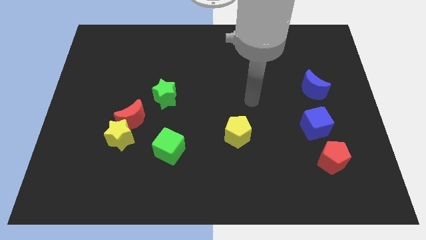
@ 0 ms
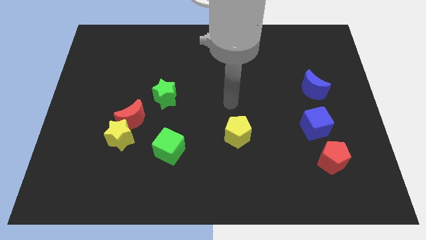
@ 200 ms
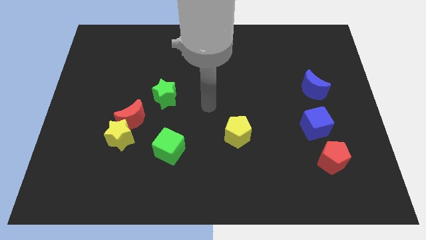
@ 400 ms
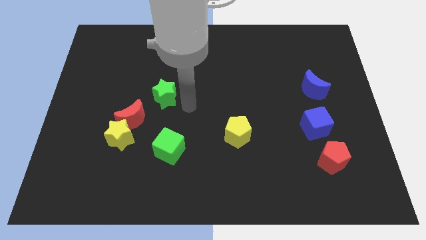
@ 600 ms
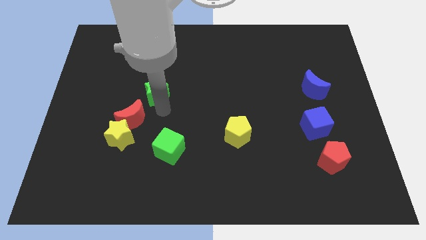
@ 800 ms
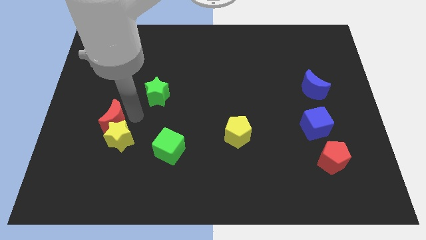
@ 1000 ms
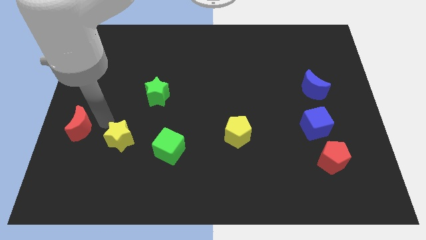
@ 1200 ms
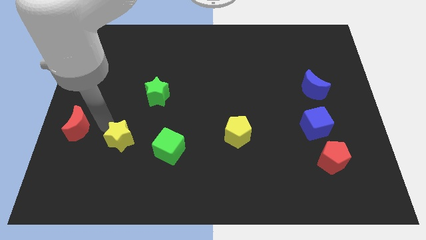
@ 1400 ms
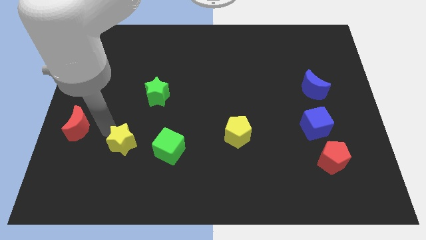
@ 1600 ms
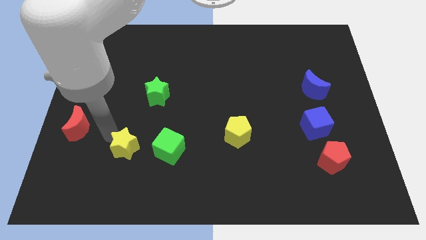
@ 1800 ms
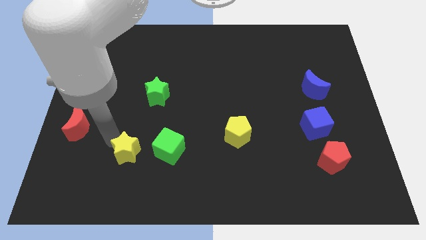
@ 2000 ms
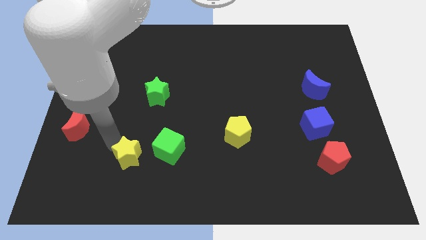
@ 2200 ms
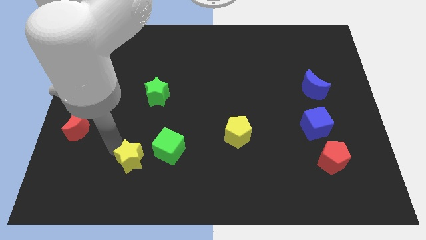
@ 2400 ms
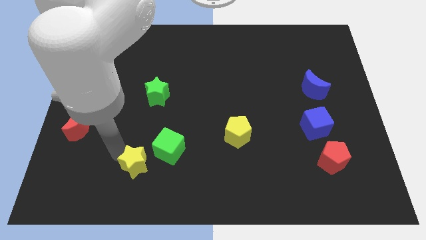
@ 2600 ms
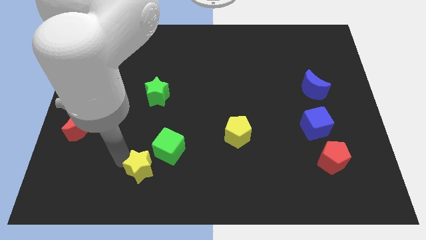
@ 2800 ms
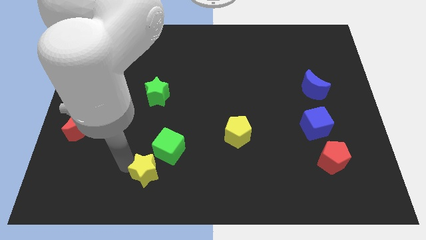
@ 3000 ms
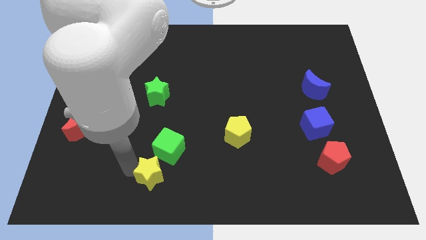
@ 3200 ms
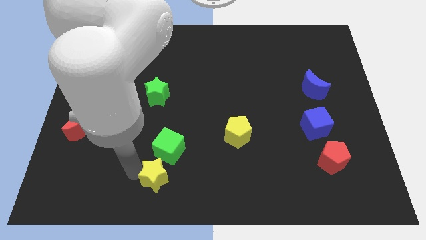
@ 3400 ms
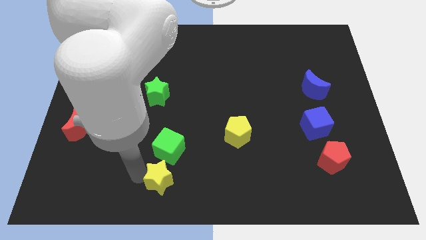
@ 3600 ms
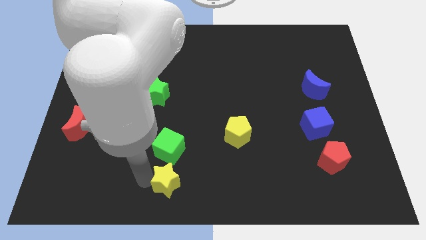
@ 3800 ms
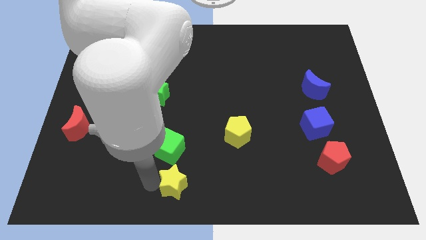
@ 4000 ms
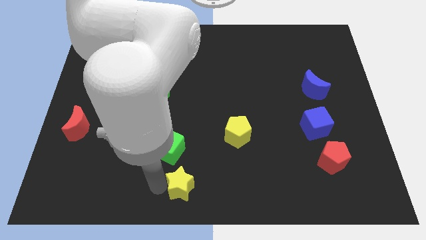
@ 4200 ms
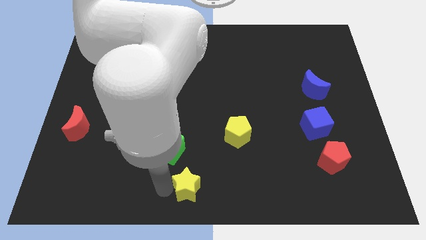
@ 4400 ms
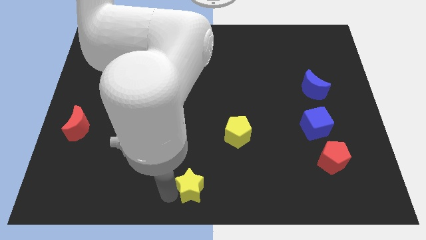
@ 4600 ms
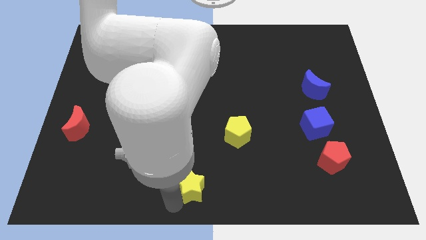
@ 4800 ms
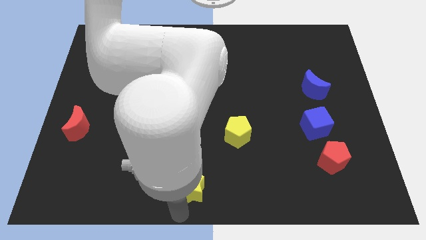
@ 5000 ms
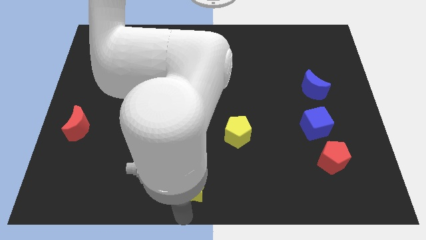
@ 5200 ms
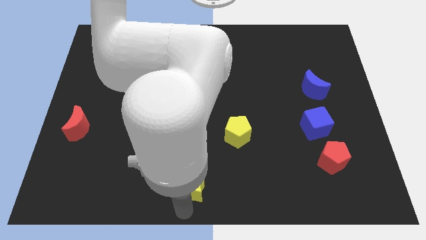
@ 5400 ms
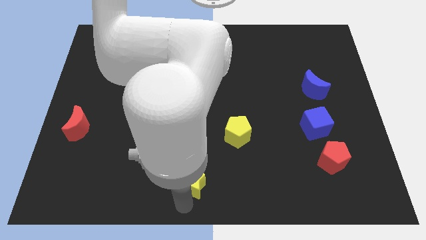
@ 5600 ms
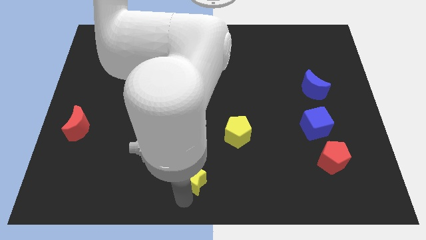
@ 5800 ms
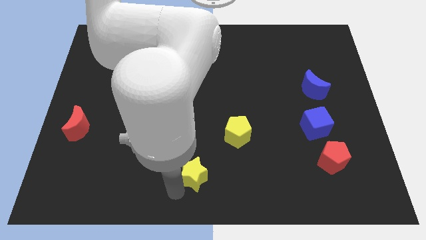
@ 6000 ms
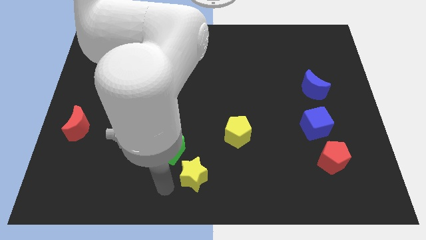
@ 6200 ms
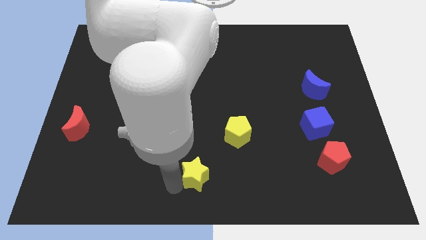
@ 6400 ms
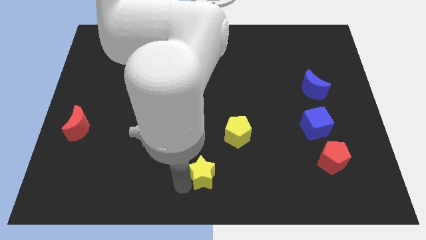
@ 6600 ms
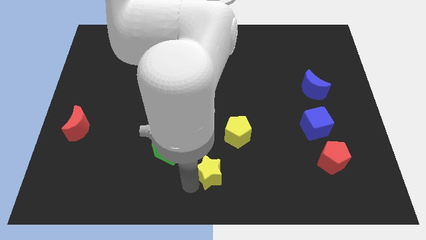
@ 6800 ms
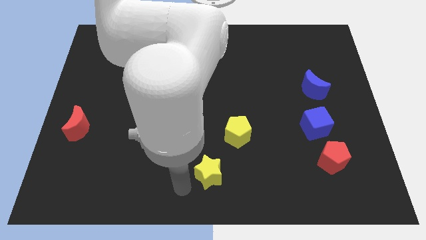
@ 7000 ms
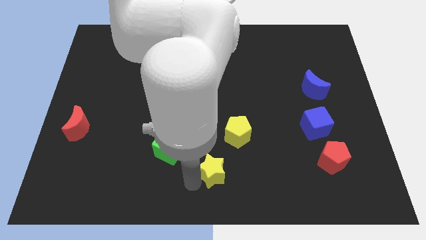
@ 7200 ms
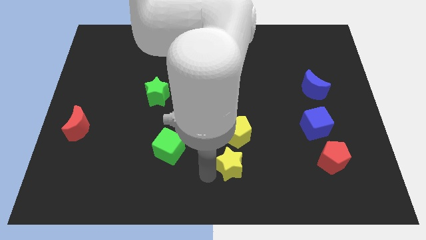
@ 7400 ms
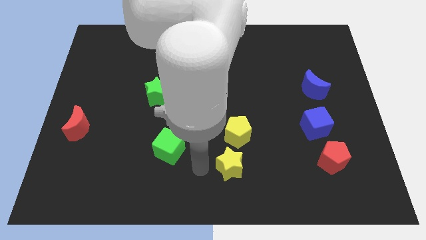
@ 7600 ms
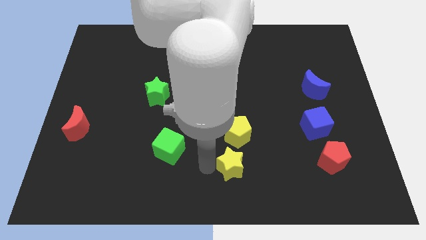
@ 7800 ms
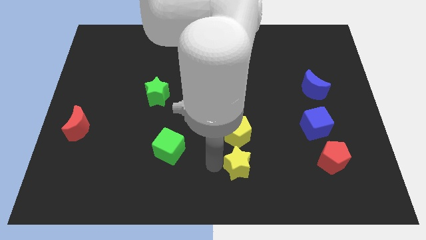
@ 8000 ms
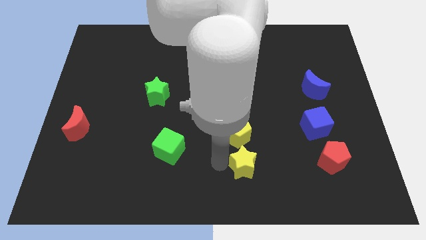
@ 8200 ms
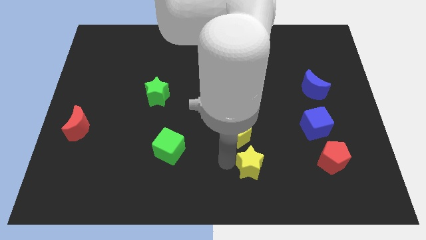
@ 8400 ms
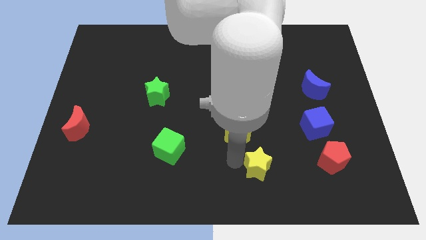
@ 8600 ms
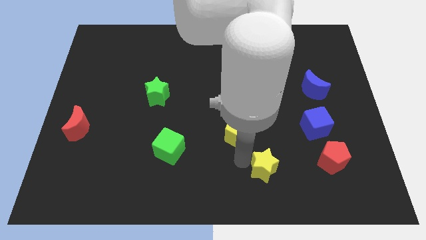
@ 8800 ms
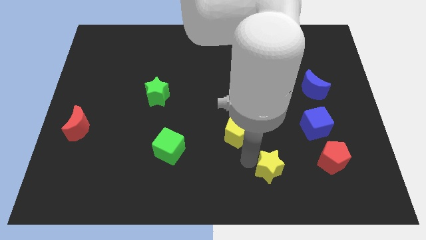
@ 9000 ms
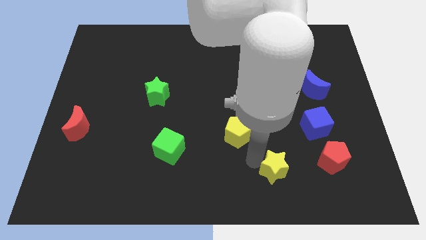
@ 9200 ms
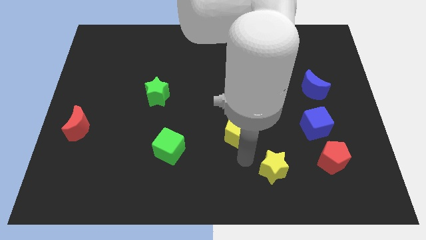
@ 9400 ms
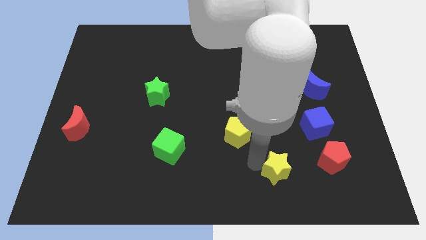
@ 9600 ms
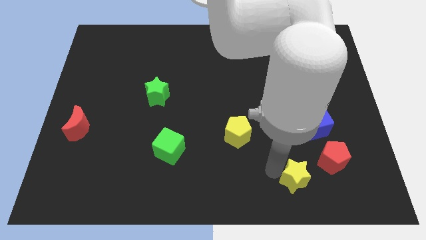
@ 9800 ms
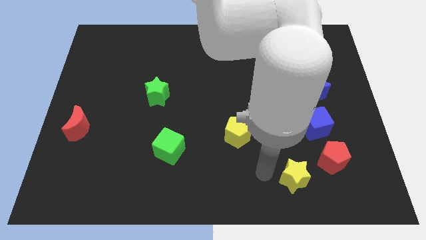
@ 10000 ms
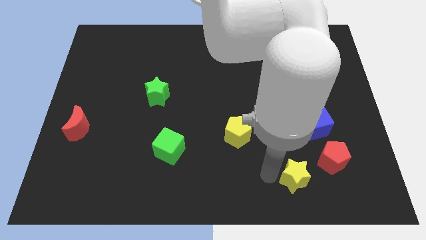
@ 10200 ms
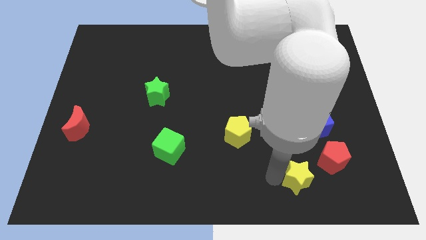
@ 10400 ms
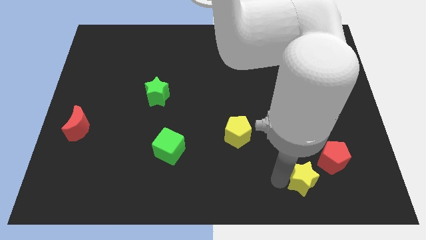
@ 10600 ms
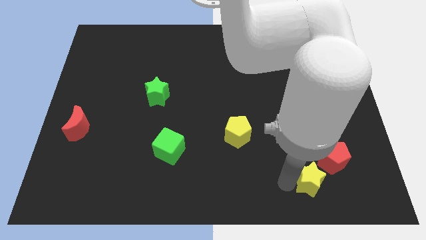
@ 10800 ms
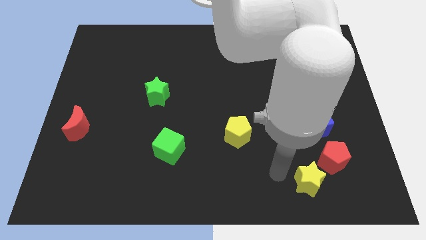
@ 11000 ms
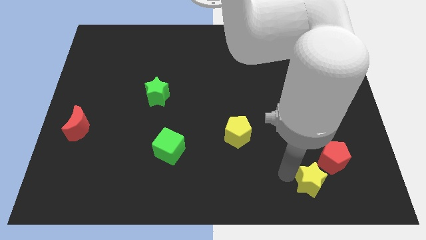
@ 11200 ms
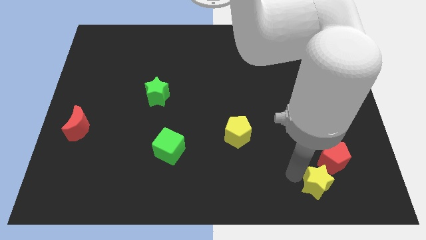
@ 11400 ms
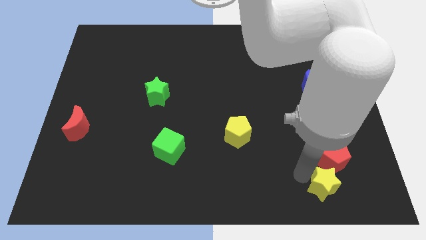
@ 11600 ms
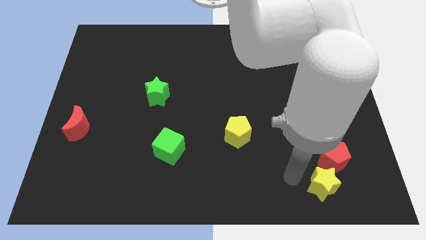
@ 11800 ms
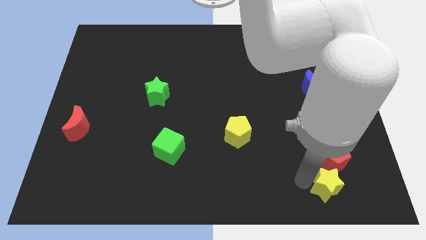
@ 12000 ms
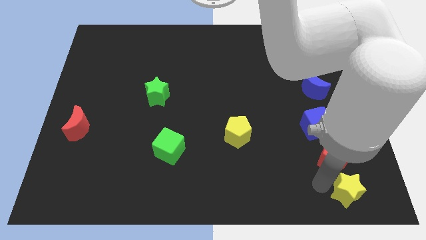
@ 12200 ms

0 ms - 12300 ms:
put the yellow star to the bottom right of the board
